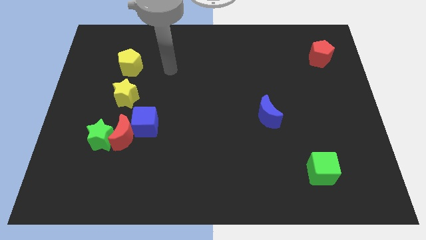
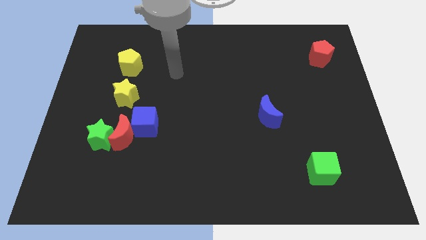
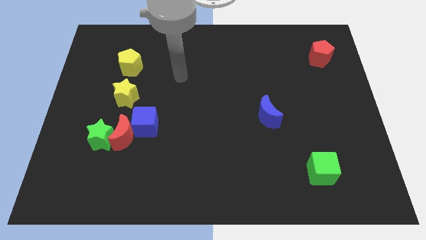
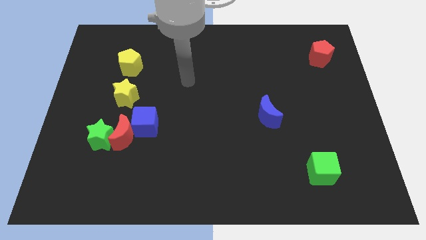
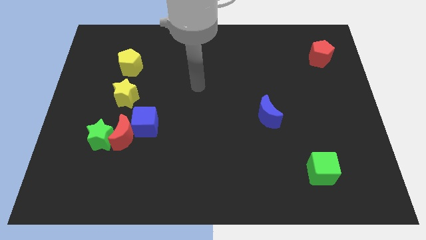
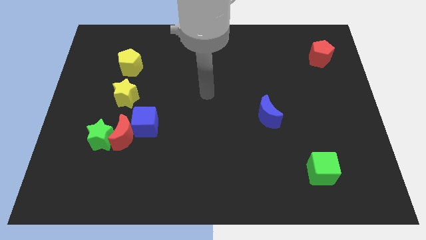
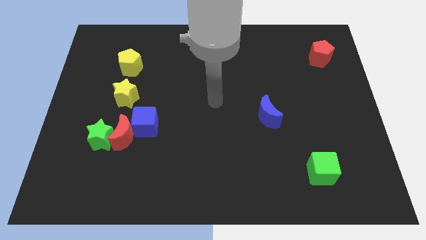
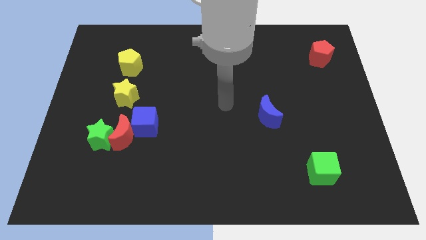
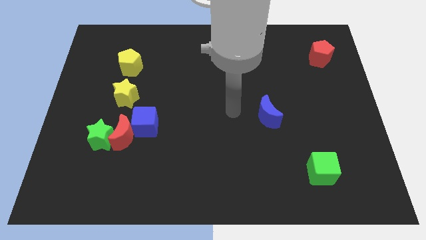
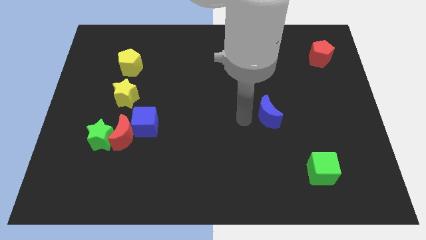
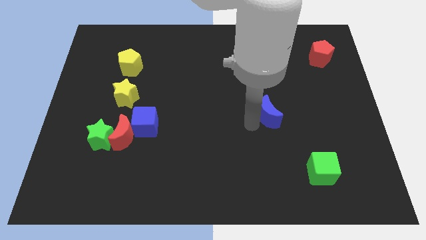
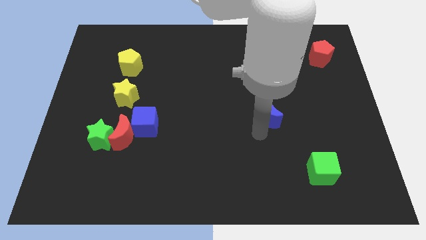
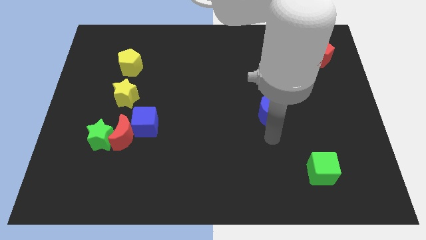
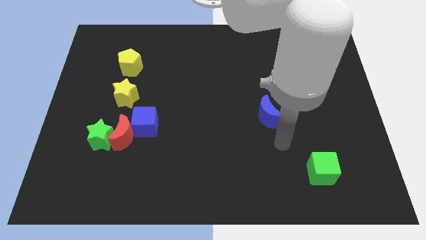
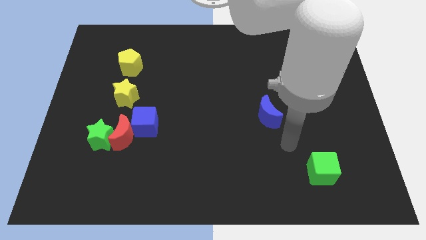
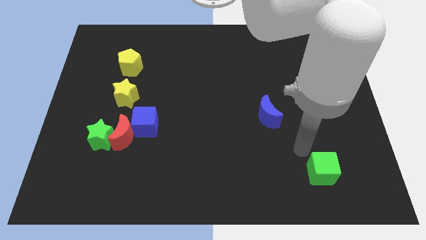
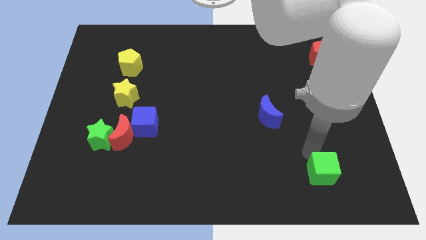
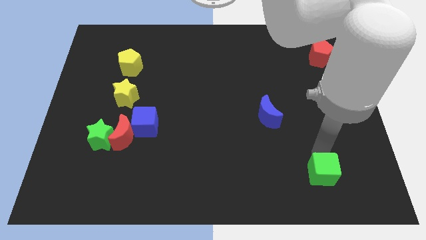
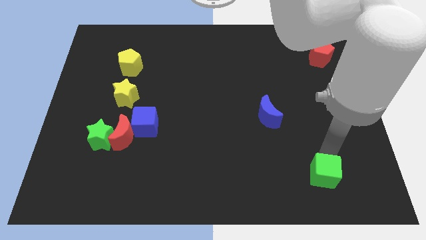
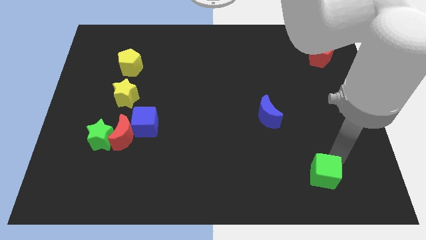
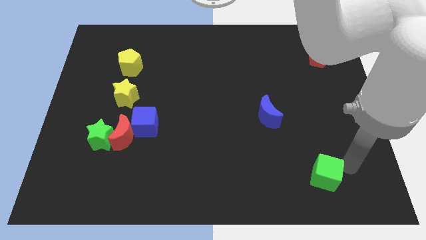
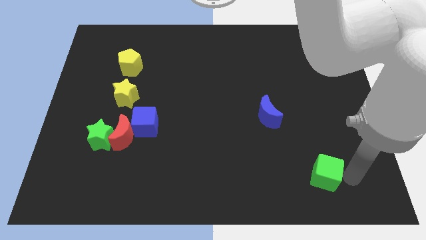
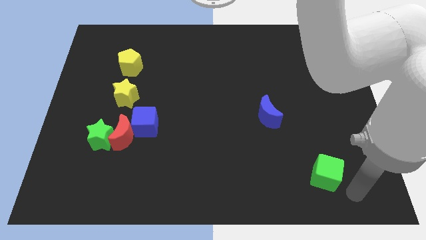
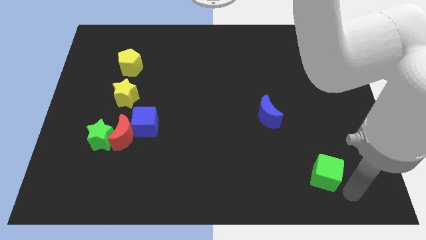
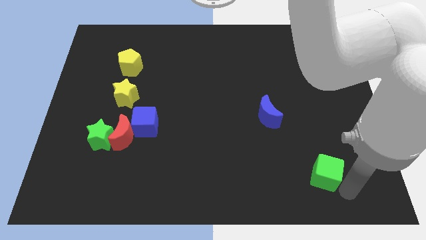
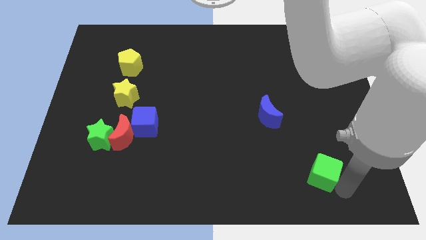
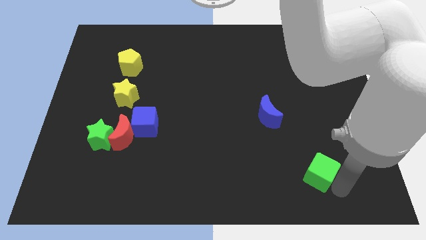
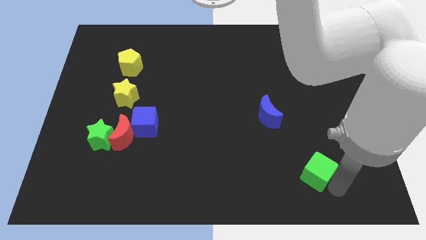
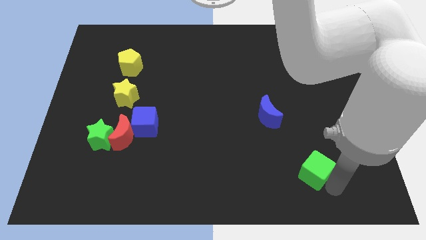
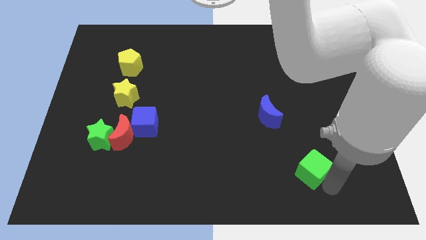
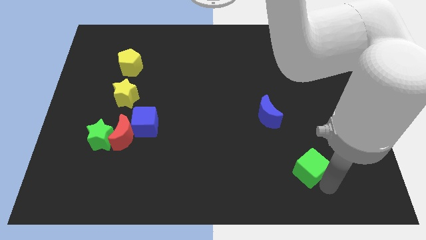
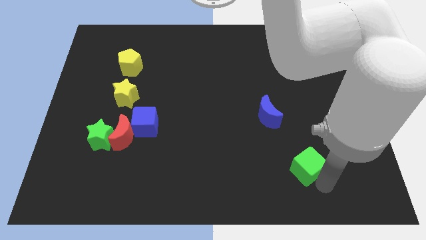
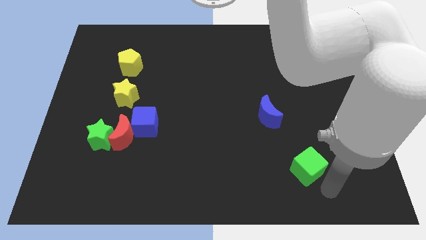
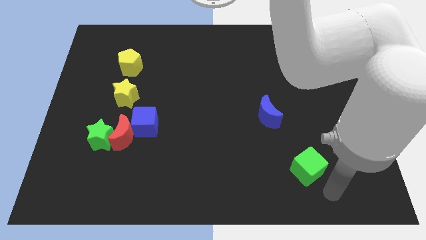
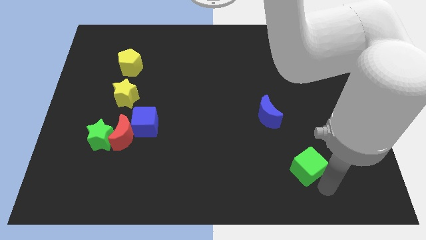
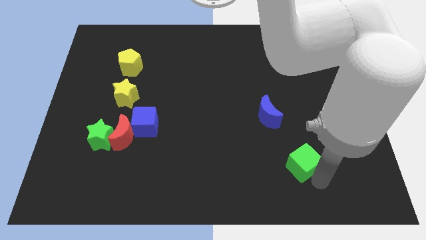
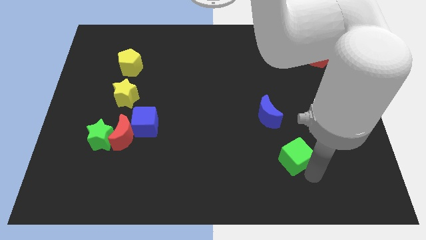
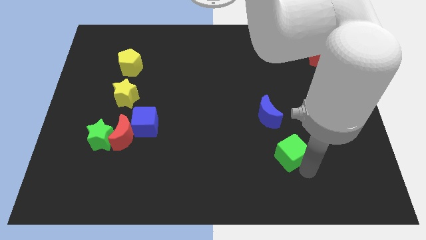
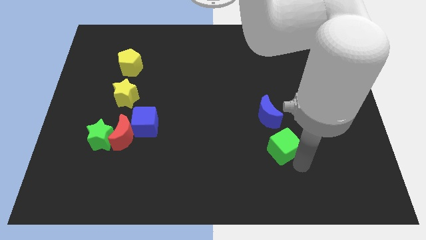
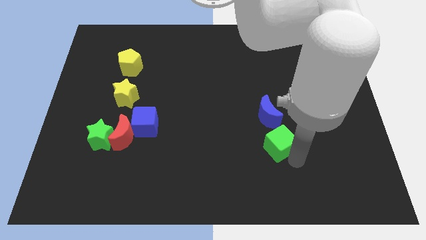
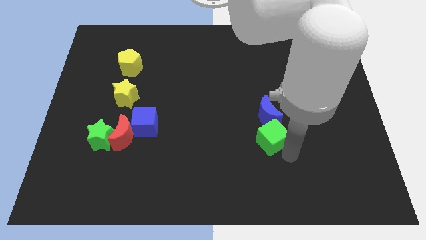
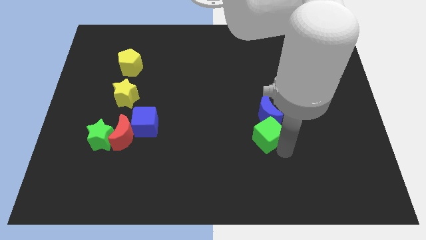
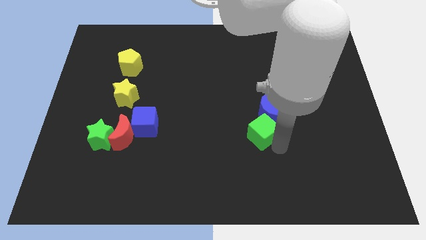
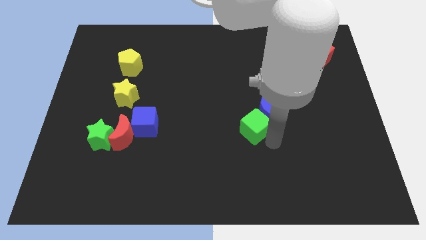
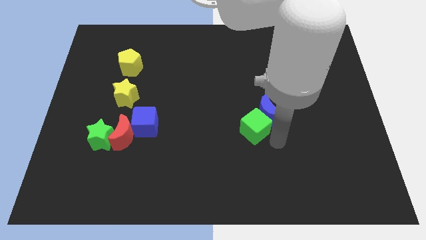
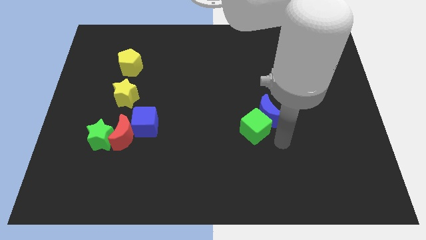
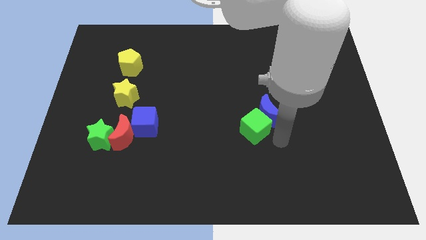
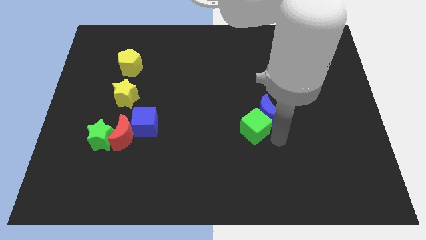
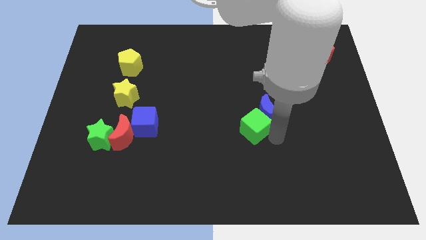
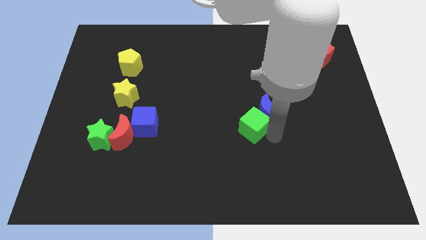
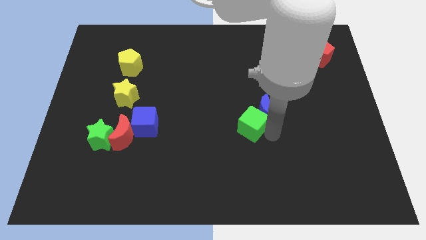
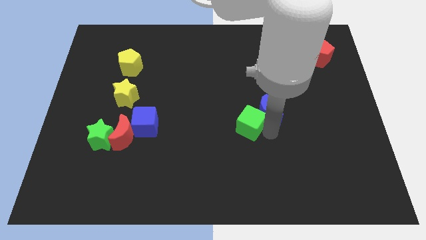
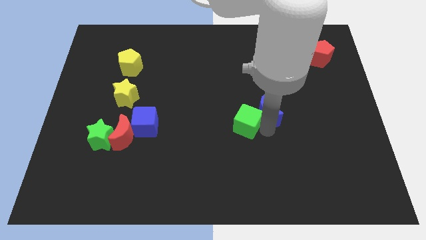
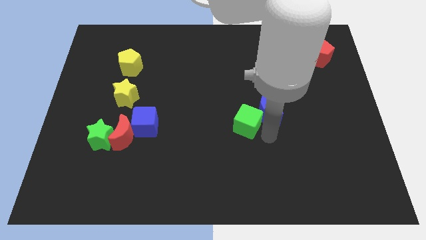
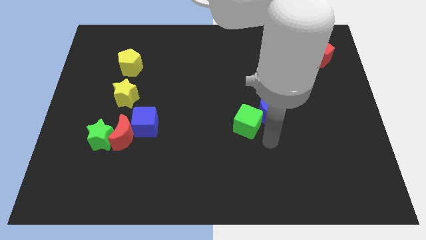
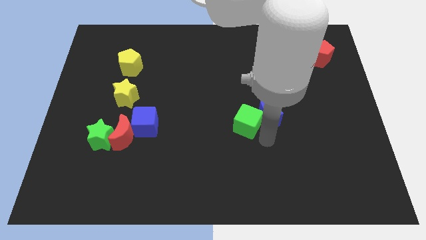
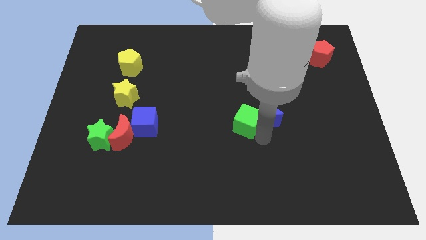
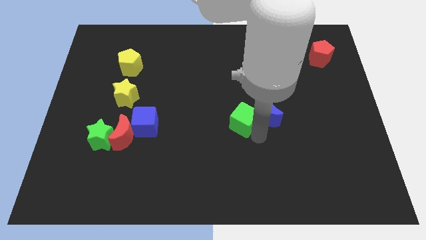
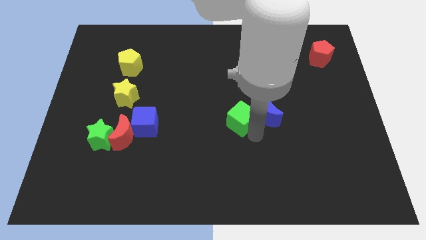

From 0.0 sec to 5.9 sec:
slide the green cube diagonally upwards and to the left

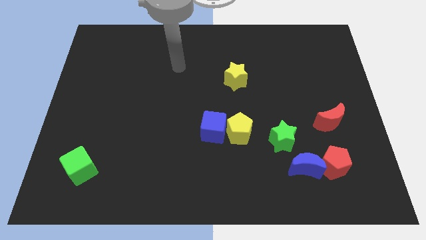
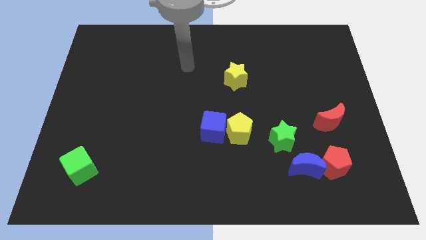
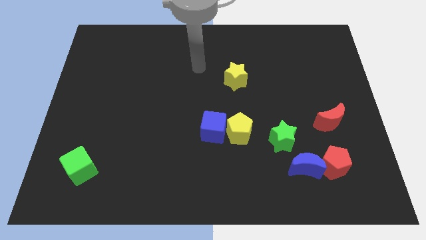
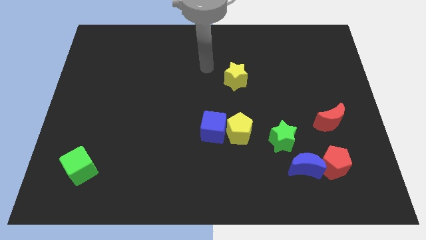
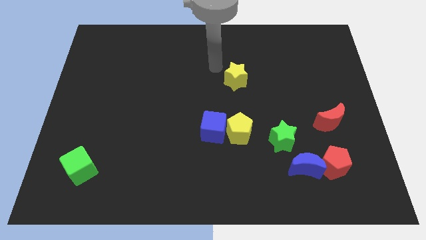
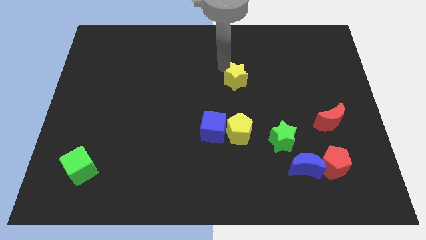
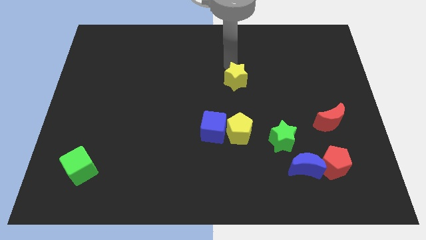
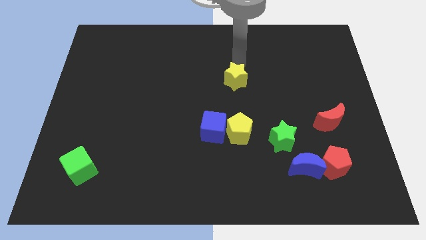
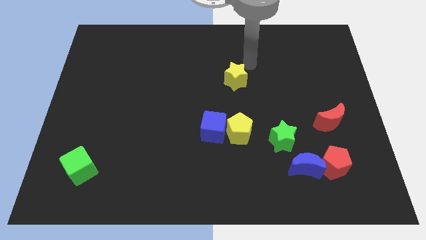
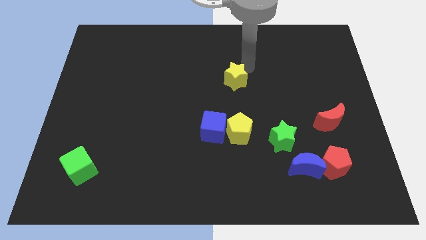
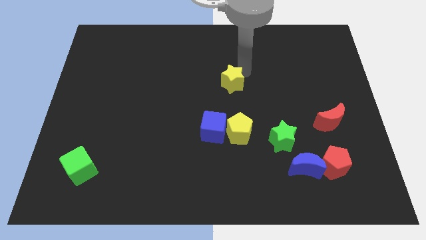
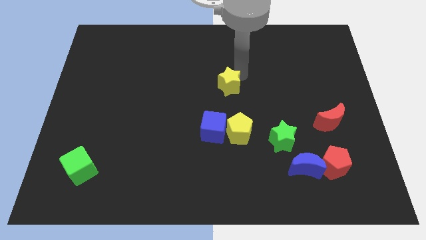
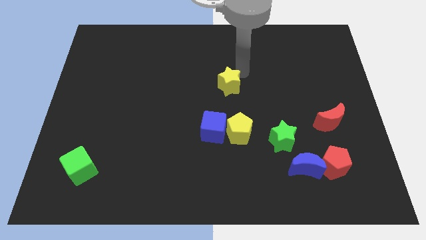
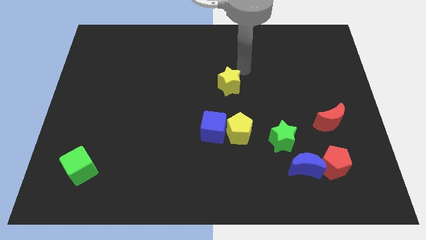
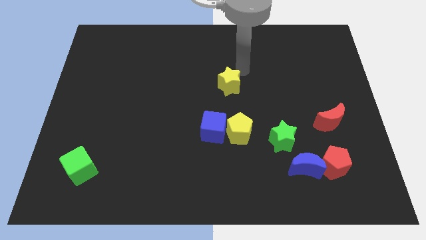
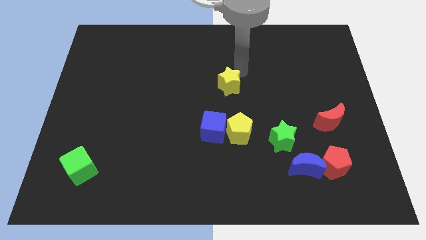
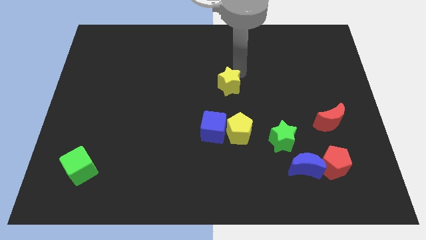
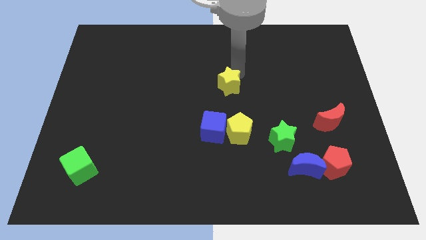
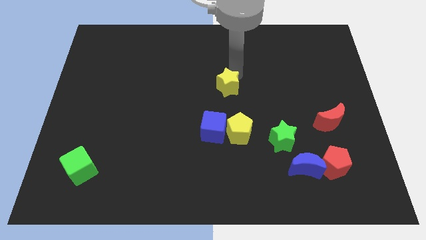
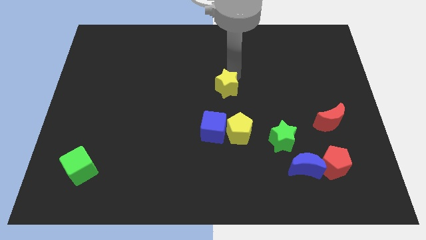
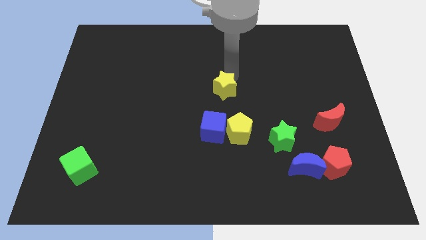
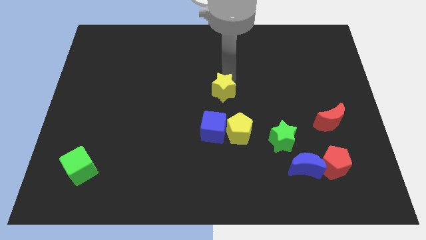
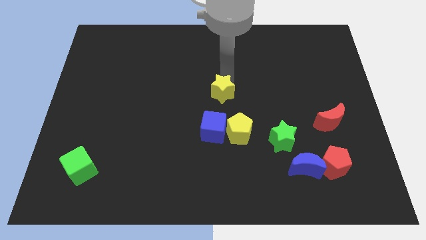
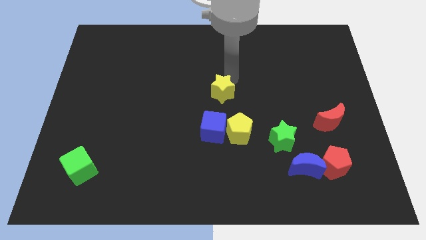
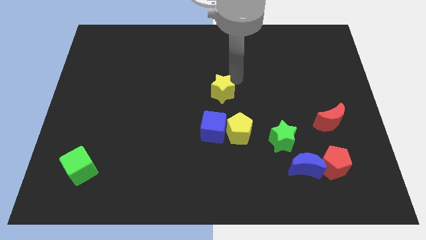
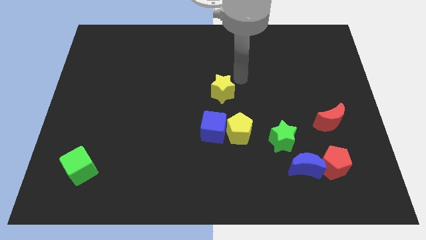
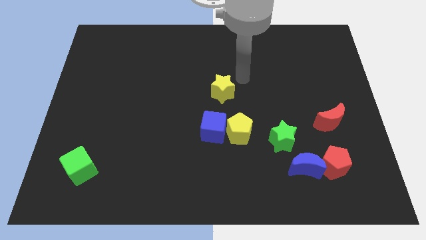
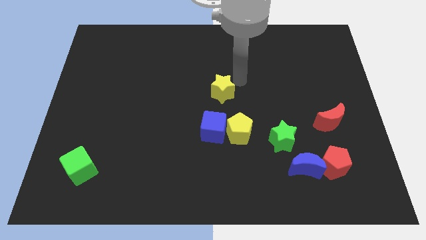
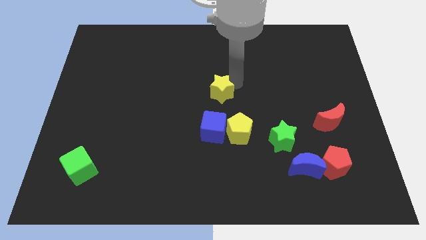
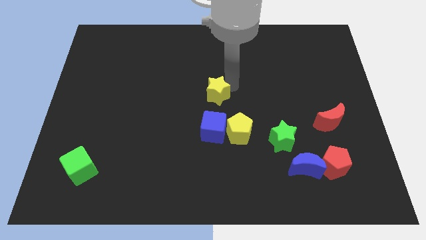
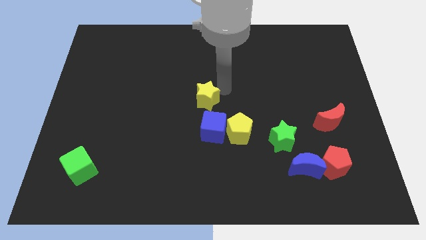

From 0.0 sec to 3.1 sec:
slightly slide the yellow star down and left diagonally
